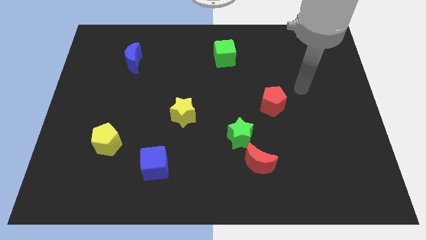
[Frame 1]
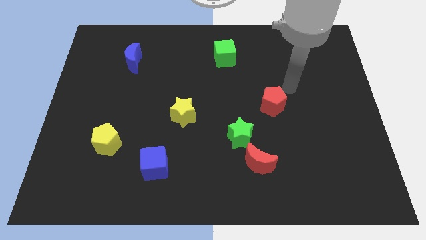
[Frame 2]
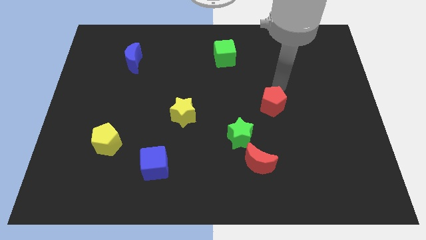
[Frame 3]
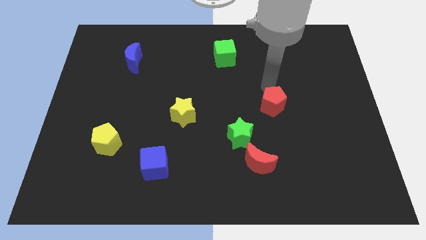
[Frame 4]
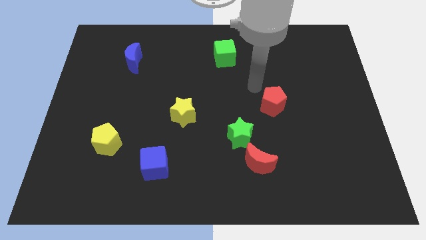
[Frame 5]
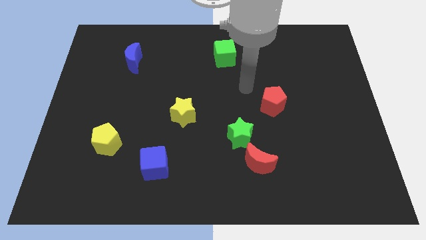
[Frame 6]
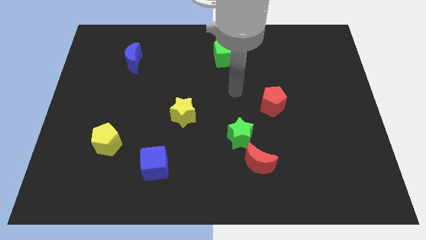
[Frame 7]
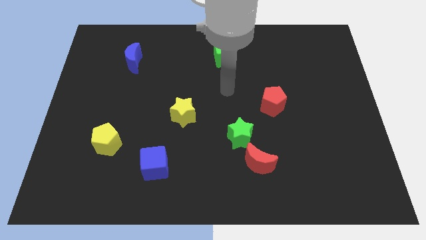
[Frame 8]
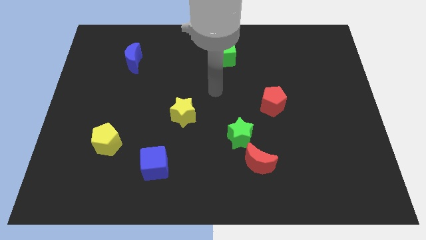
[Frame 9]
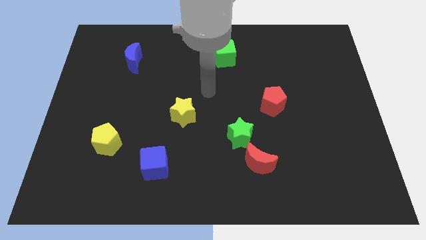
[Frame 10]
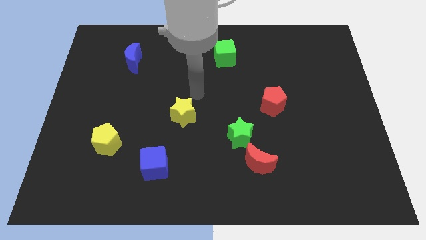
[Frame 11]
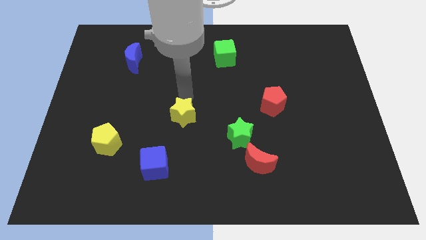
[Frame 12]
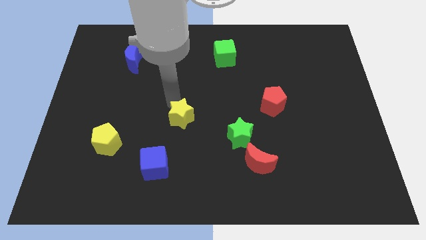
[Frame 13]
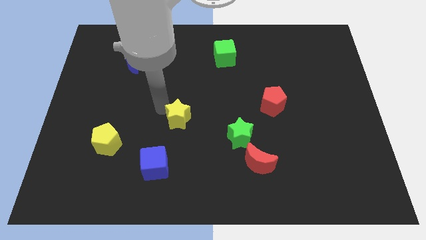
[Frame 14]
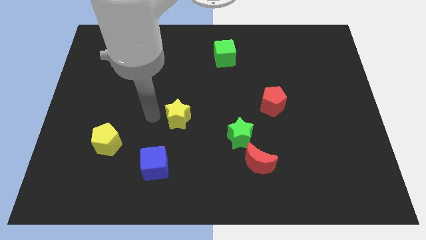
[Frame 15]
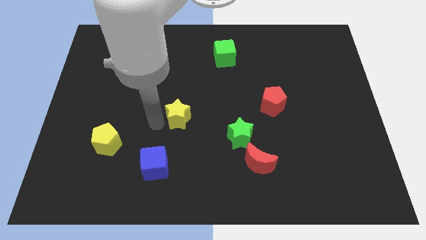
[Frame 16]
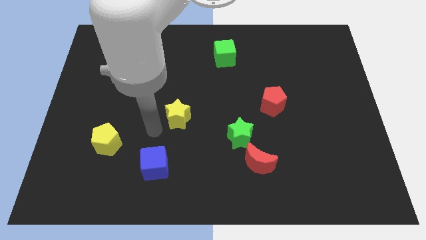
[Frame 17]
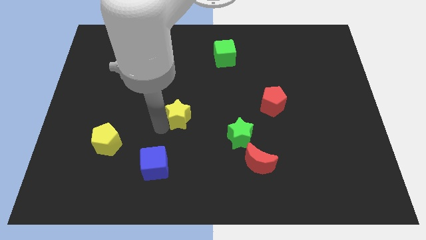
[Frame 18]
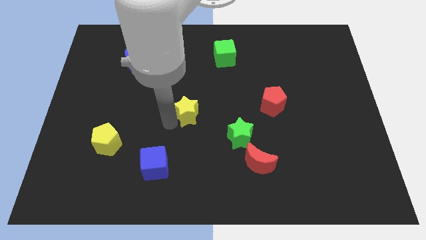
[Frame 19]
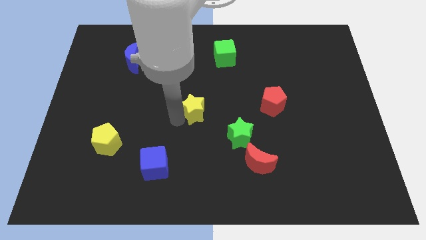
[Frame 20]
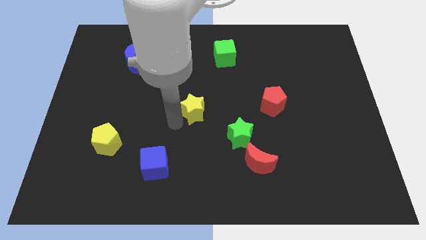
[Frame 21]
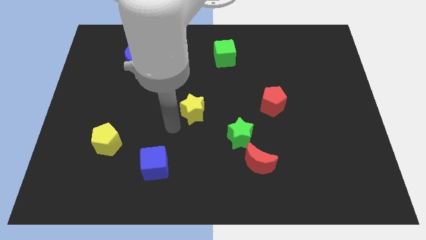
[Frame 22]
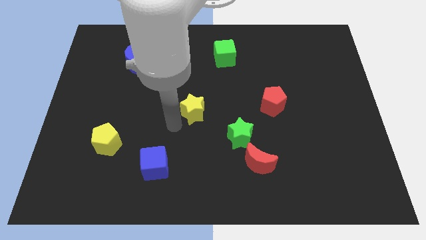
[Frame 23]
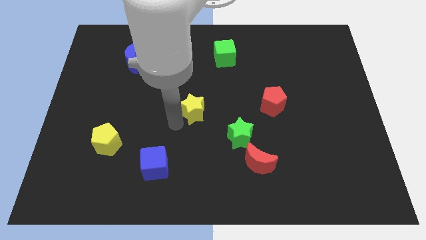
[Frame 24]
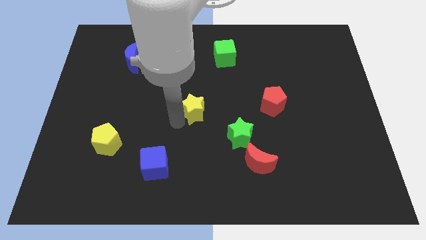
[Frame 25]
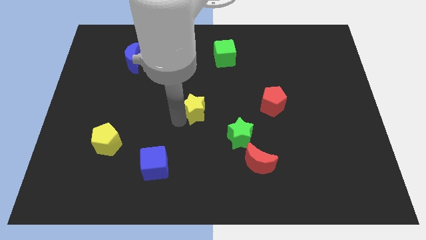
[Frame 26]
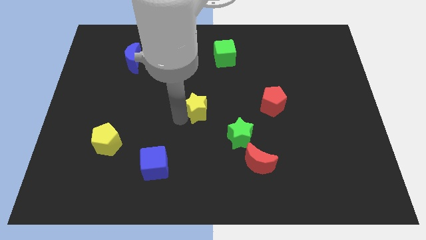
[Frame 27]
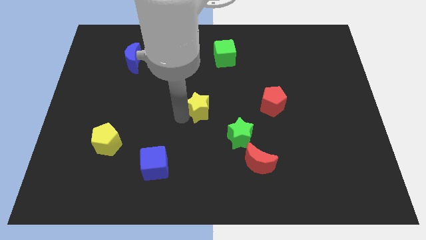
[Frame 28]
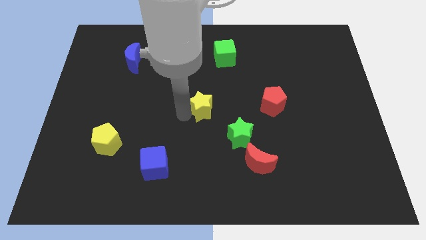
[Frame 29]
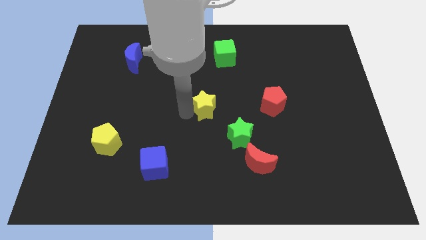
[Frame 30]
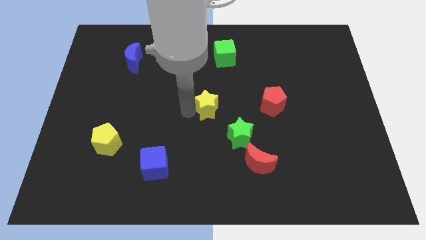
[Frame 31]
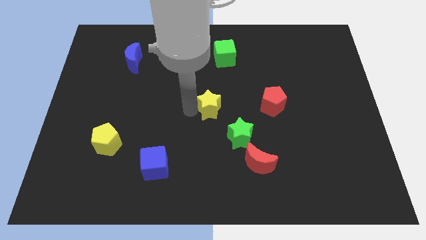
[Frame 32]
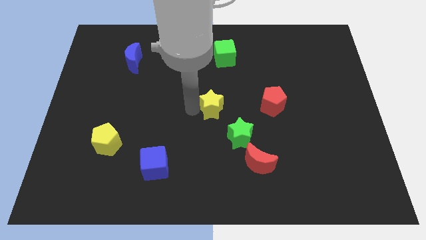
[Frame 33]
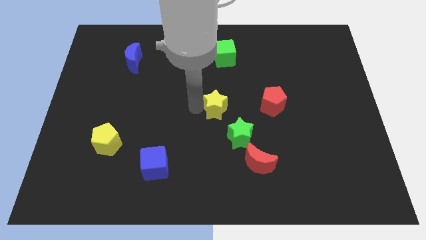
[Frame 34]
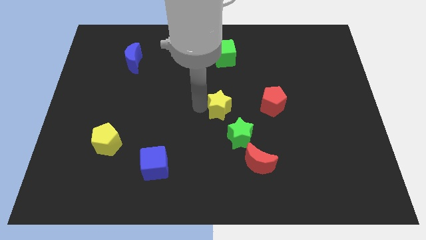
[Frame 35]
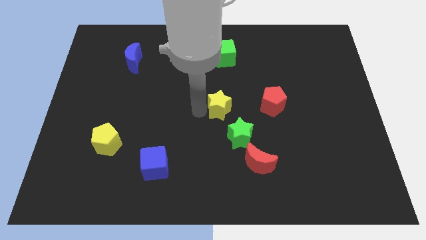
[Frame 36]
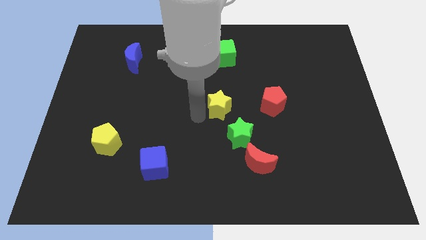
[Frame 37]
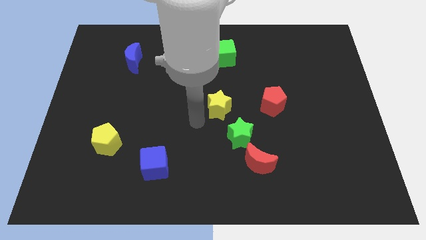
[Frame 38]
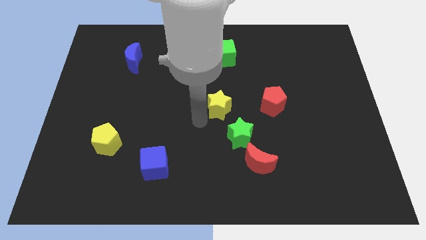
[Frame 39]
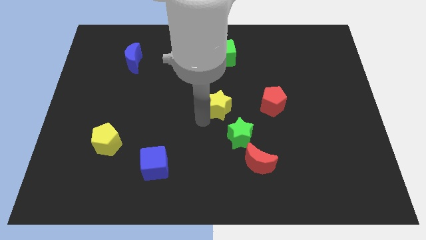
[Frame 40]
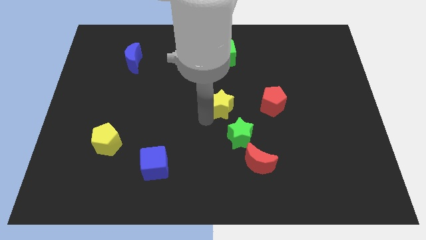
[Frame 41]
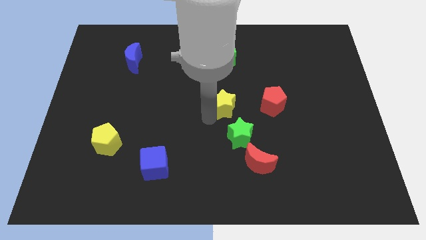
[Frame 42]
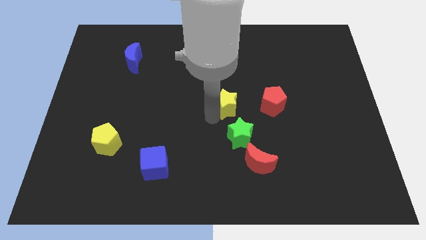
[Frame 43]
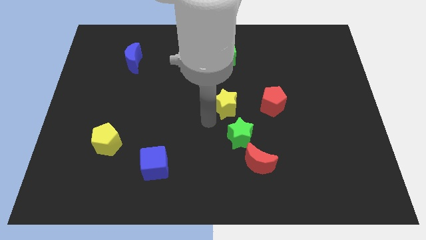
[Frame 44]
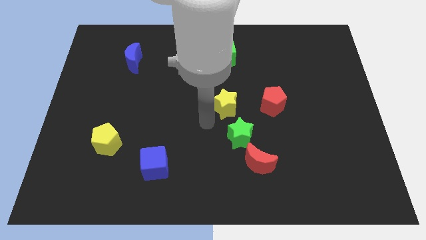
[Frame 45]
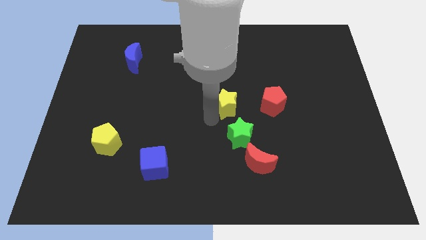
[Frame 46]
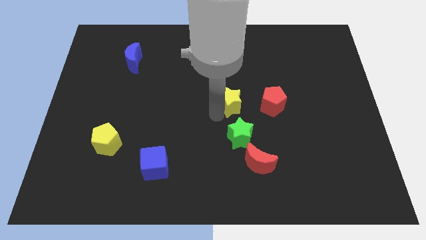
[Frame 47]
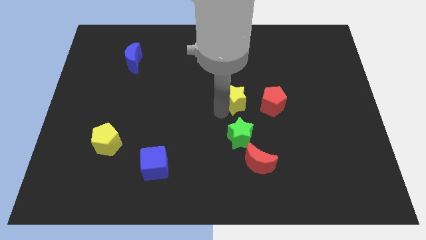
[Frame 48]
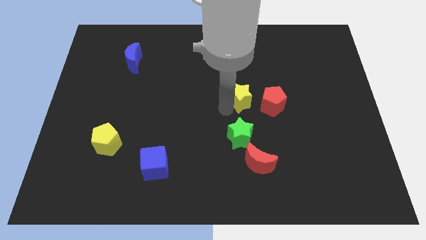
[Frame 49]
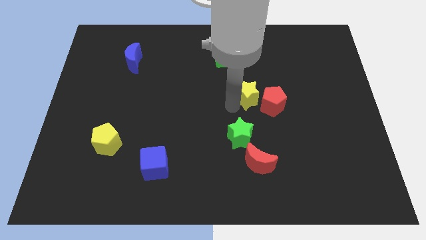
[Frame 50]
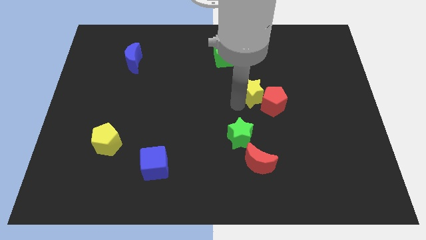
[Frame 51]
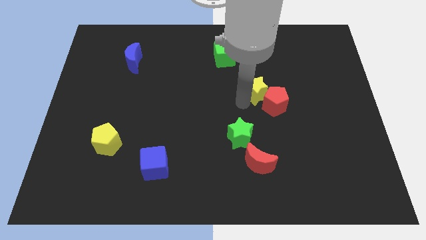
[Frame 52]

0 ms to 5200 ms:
move the yellow star to the top side of the red pentagon

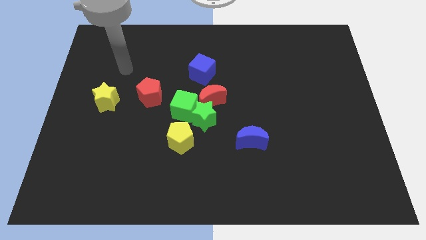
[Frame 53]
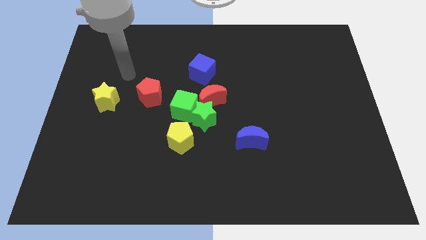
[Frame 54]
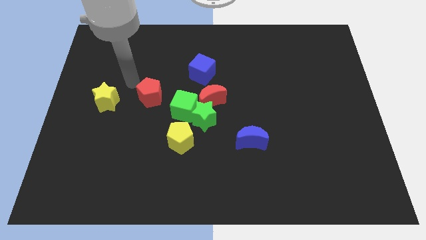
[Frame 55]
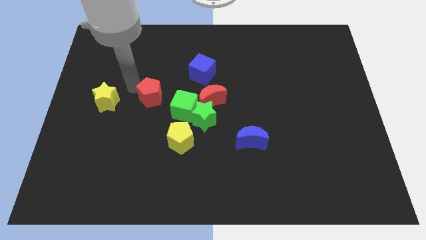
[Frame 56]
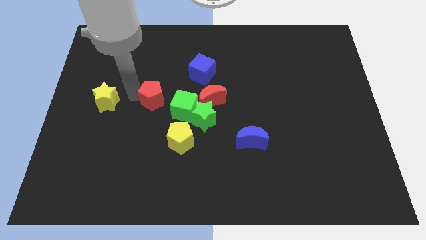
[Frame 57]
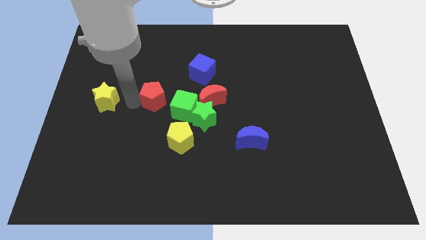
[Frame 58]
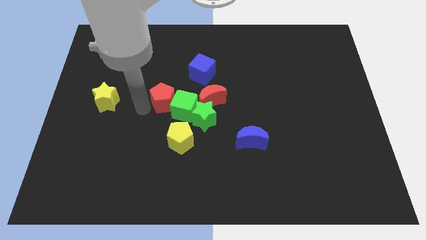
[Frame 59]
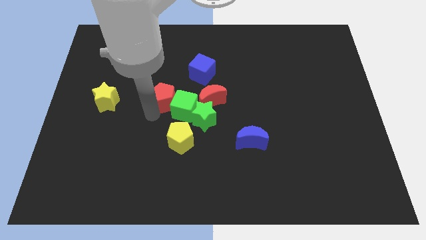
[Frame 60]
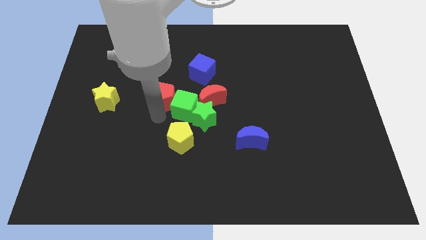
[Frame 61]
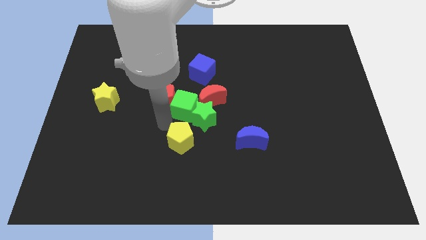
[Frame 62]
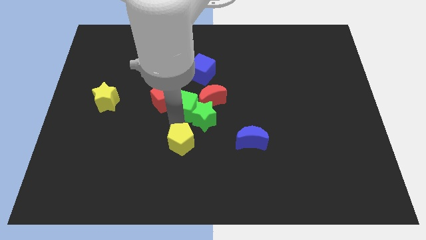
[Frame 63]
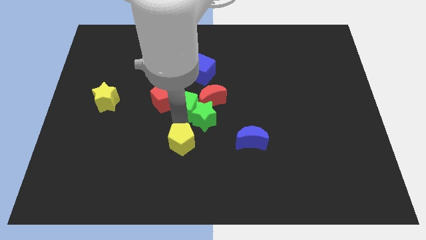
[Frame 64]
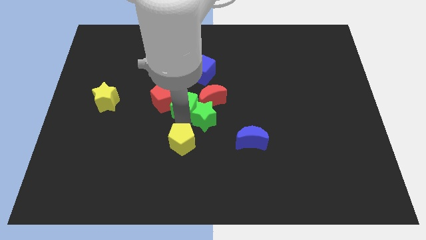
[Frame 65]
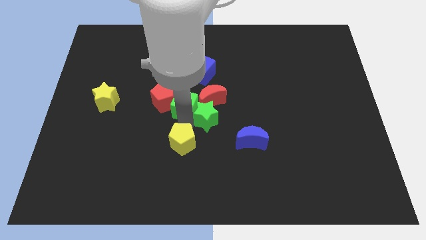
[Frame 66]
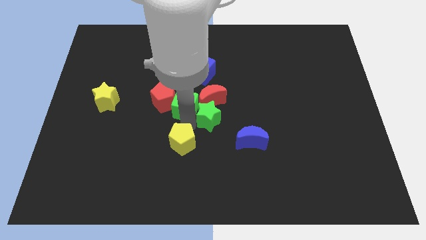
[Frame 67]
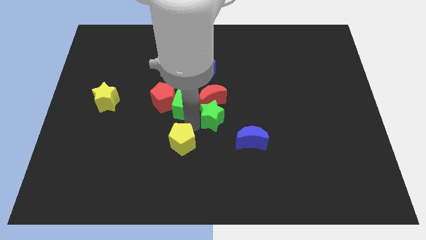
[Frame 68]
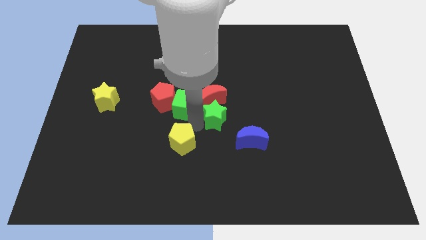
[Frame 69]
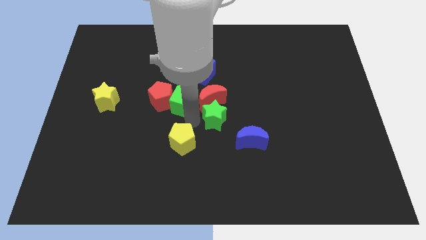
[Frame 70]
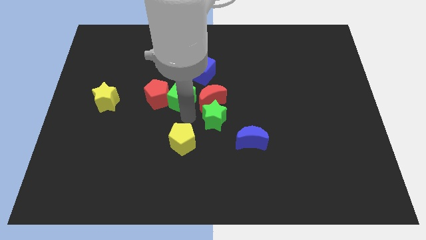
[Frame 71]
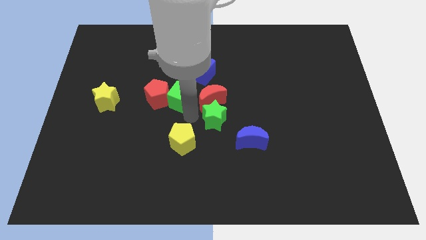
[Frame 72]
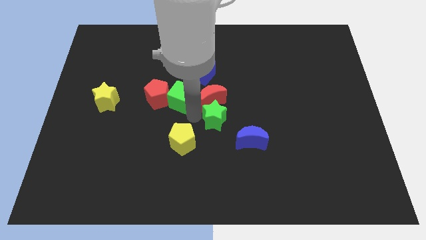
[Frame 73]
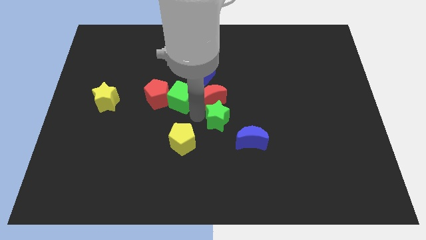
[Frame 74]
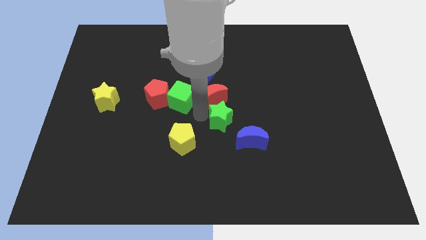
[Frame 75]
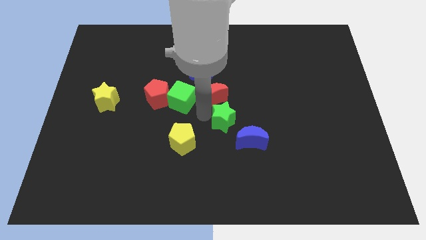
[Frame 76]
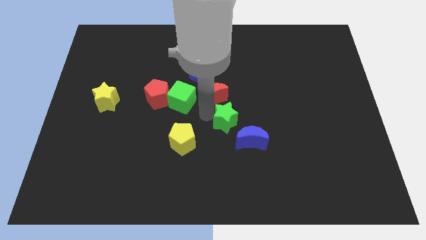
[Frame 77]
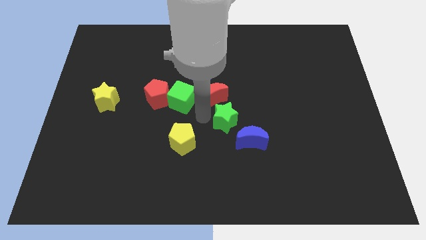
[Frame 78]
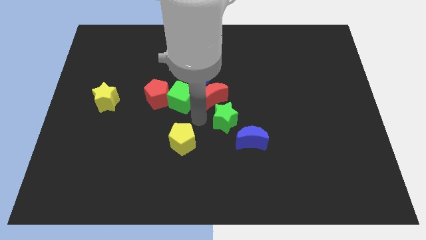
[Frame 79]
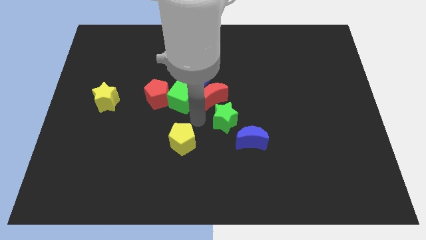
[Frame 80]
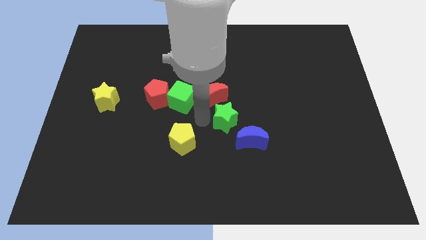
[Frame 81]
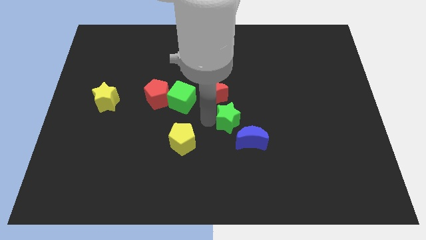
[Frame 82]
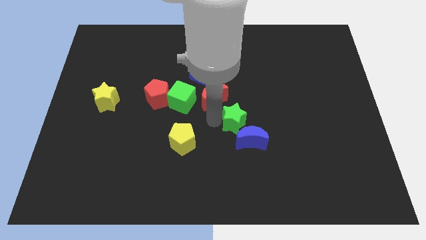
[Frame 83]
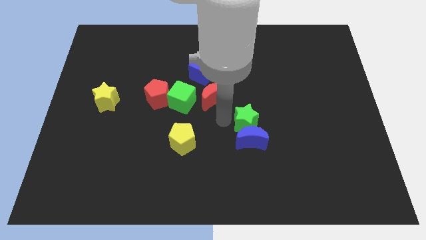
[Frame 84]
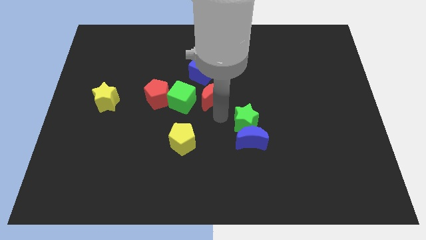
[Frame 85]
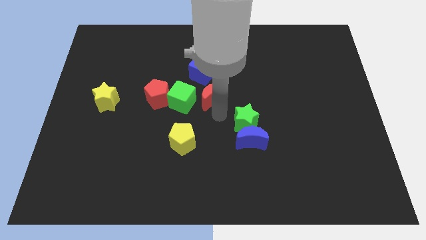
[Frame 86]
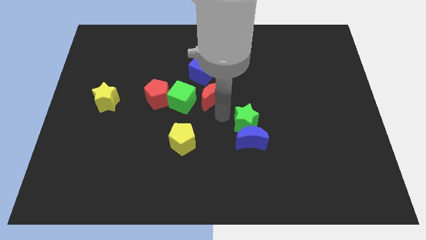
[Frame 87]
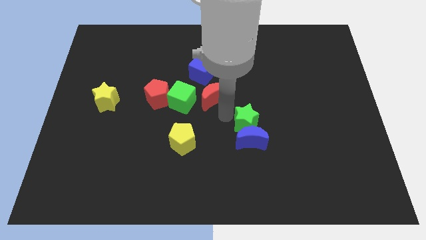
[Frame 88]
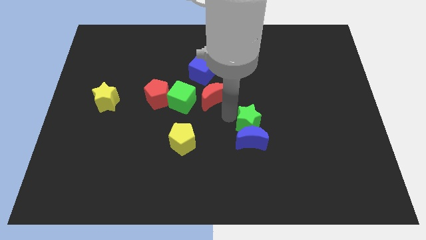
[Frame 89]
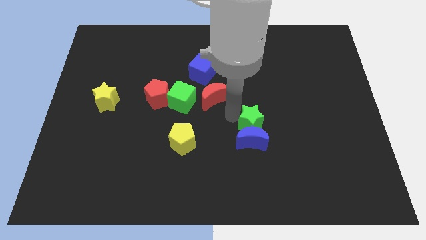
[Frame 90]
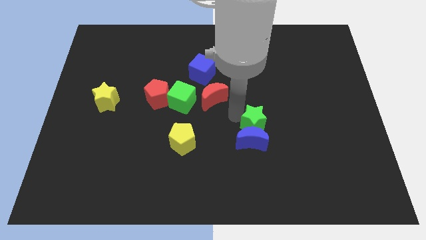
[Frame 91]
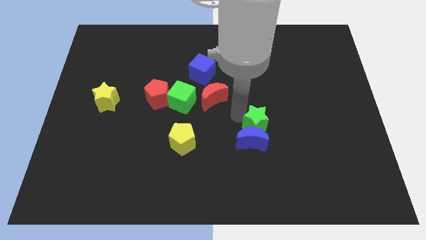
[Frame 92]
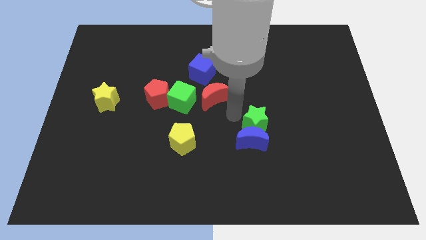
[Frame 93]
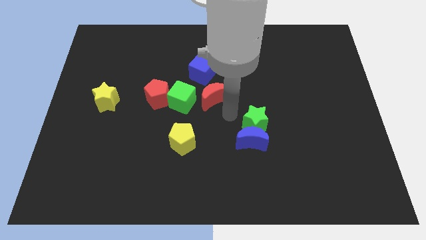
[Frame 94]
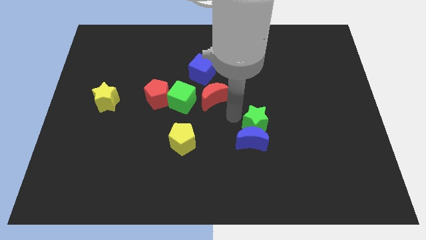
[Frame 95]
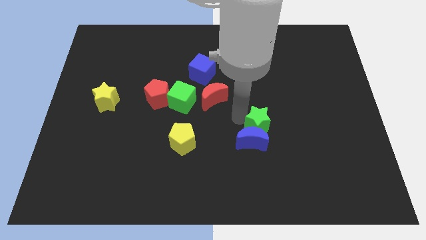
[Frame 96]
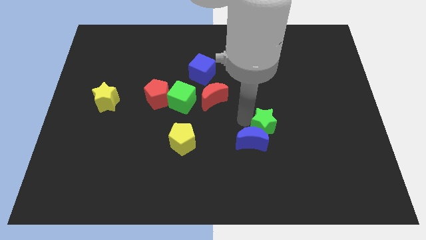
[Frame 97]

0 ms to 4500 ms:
slide the green star right of the blue moon
